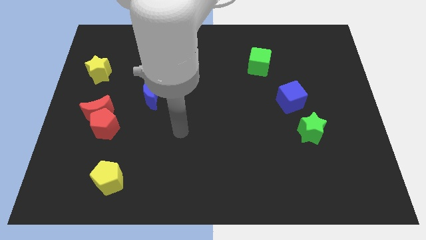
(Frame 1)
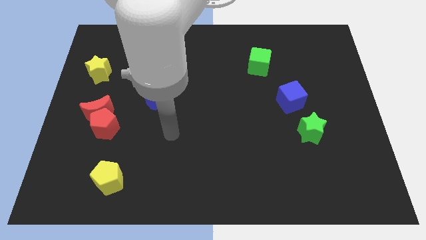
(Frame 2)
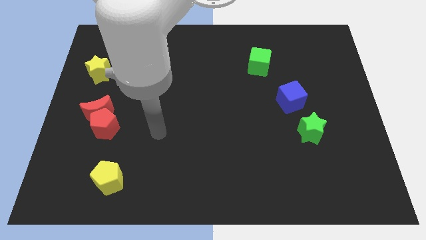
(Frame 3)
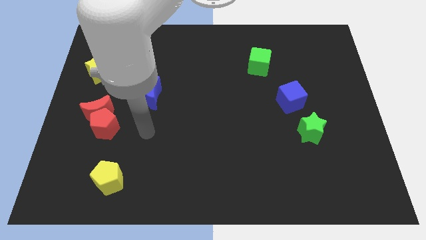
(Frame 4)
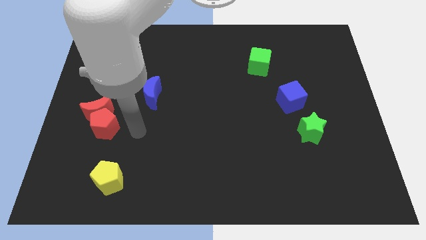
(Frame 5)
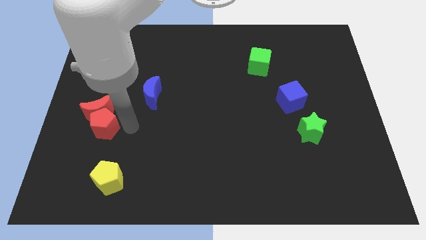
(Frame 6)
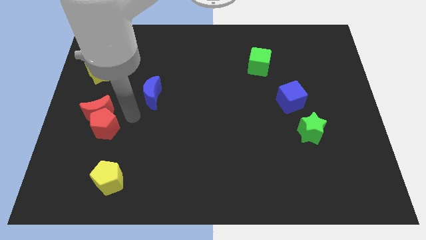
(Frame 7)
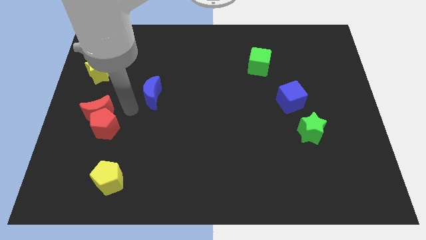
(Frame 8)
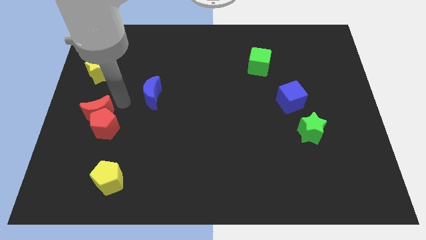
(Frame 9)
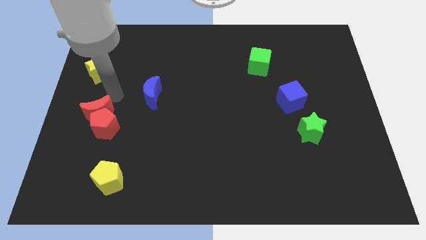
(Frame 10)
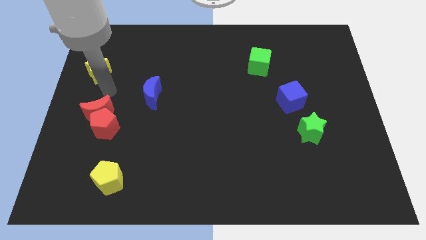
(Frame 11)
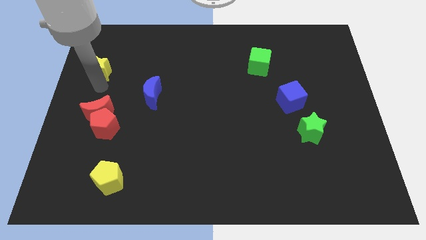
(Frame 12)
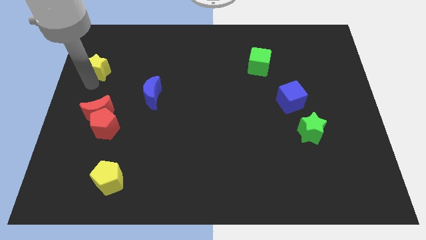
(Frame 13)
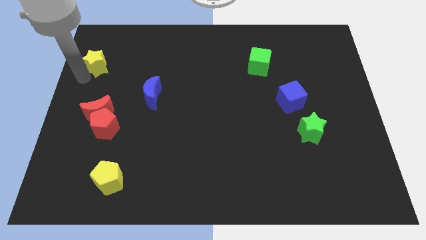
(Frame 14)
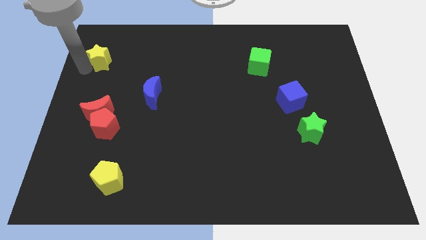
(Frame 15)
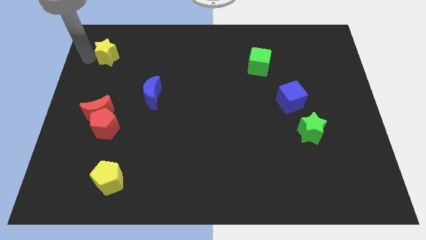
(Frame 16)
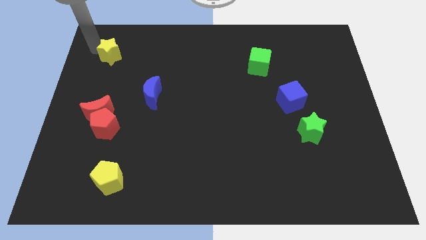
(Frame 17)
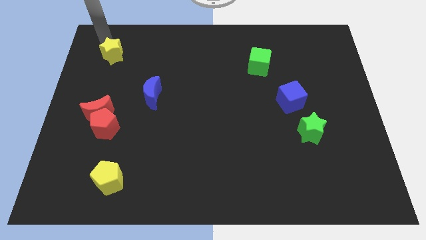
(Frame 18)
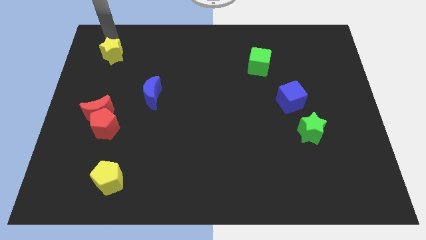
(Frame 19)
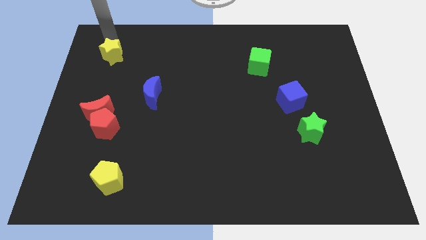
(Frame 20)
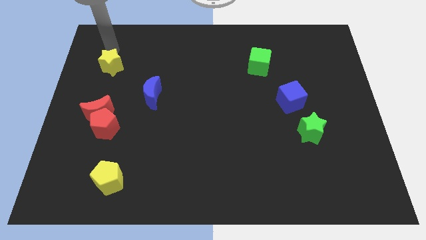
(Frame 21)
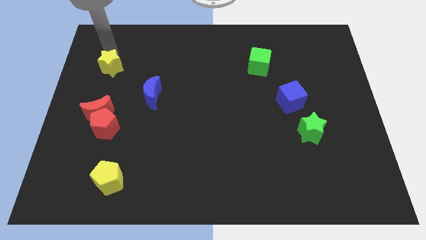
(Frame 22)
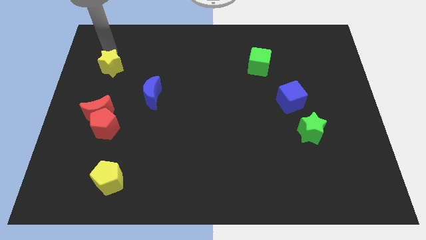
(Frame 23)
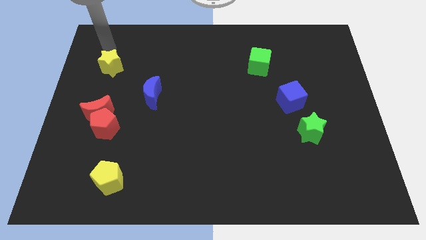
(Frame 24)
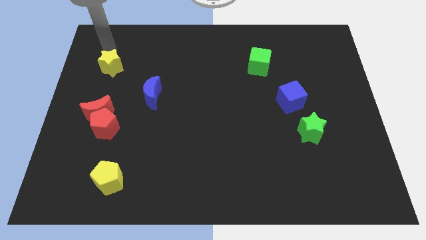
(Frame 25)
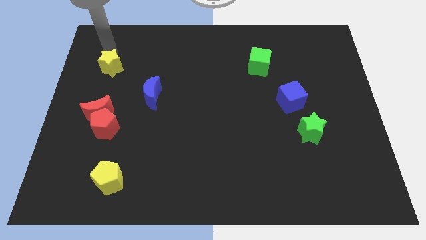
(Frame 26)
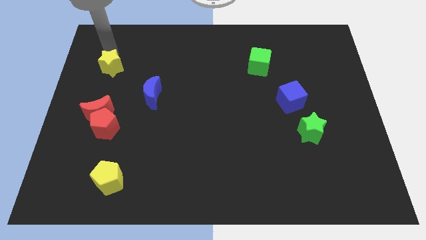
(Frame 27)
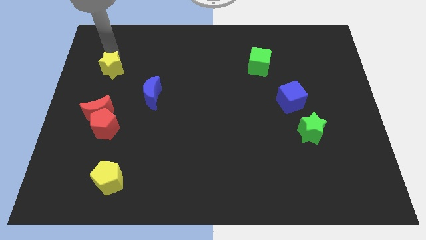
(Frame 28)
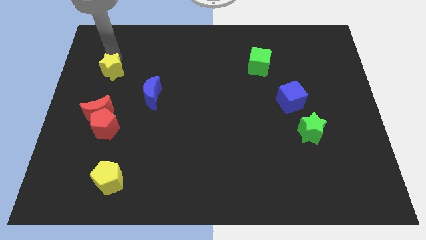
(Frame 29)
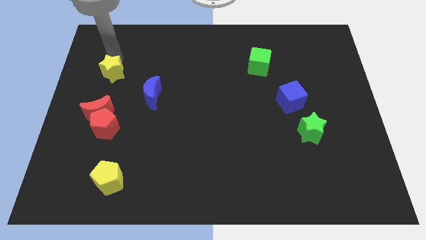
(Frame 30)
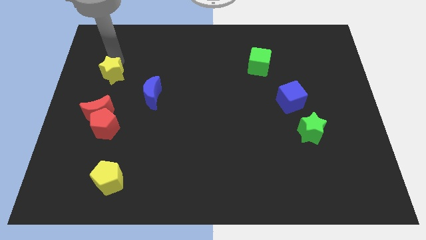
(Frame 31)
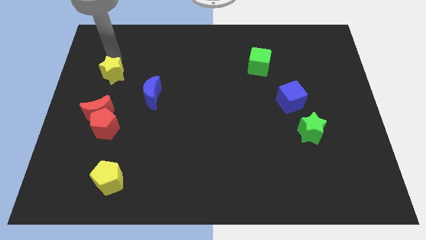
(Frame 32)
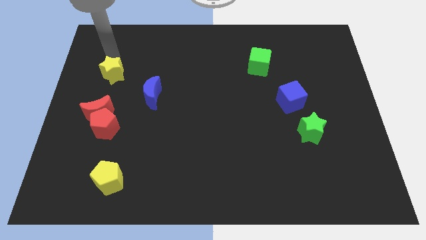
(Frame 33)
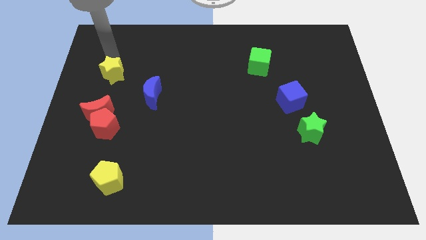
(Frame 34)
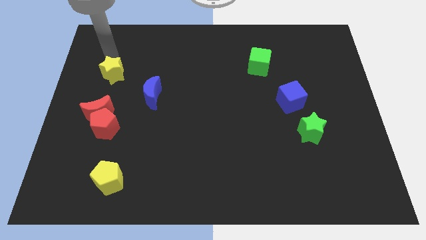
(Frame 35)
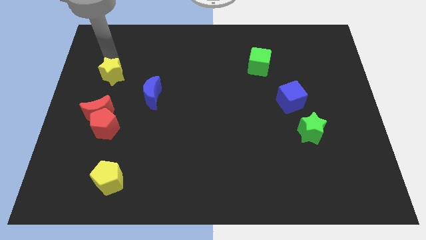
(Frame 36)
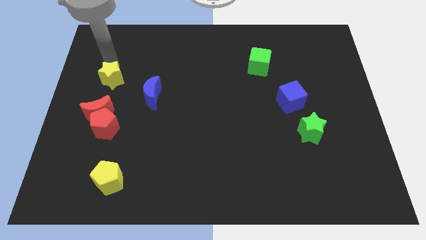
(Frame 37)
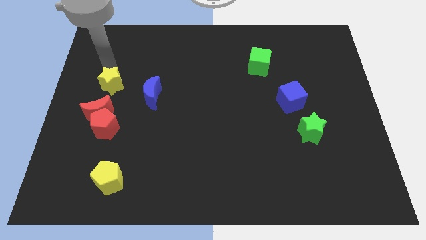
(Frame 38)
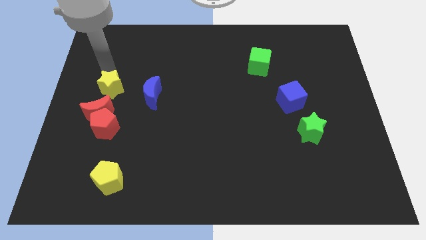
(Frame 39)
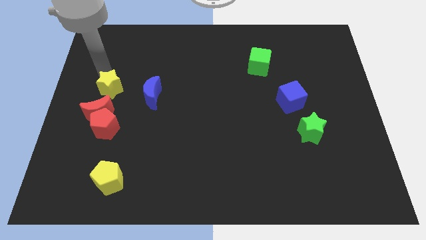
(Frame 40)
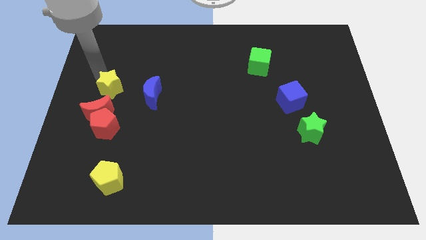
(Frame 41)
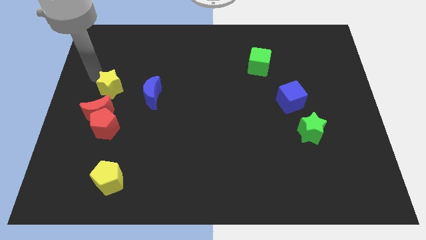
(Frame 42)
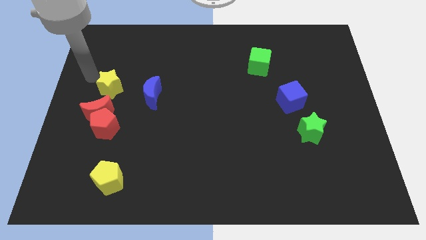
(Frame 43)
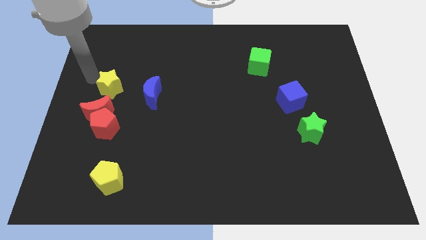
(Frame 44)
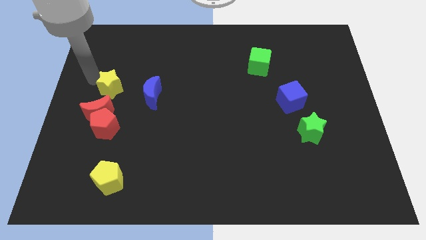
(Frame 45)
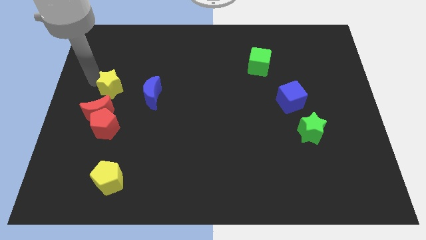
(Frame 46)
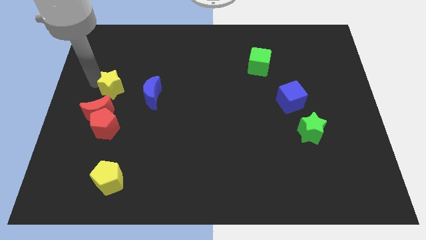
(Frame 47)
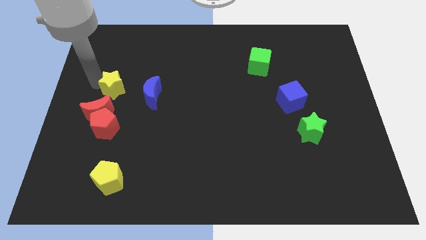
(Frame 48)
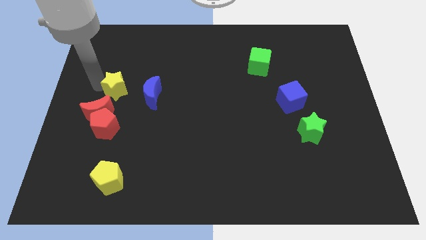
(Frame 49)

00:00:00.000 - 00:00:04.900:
slightly slide the yellow star downwards and to the right

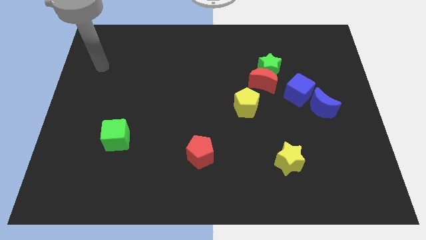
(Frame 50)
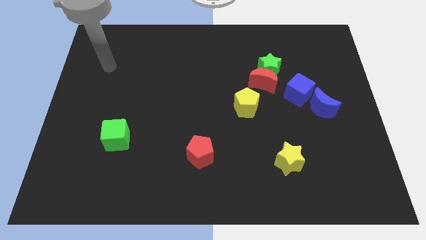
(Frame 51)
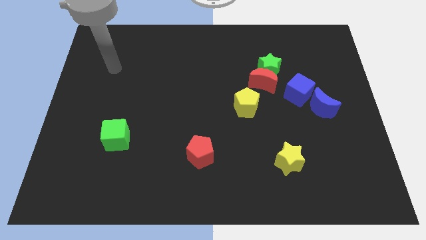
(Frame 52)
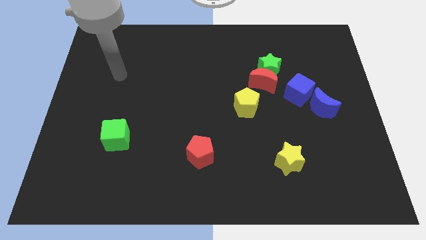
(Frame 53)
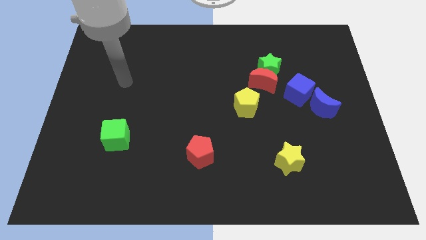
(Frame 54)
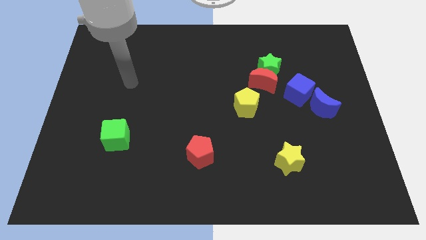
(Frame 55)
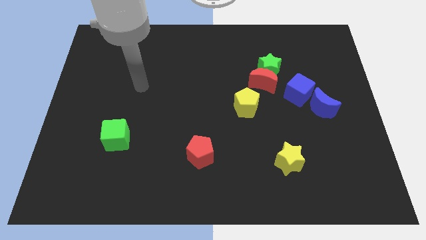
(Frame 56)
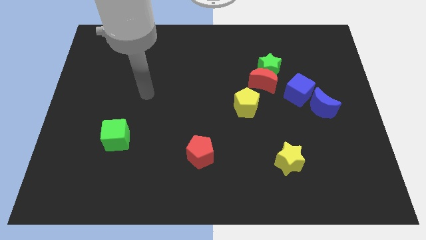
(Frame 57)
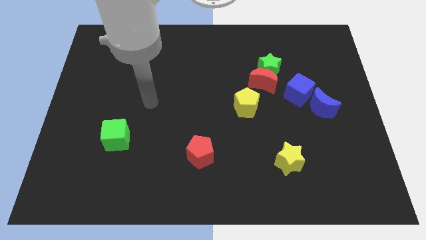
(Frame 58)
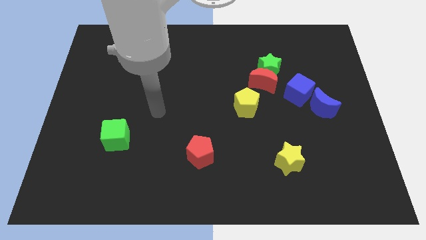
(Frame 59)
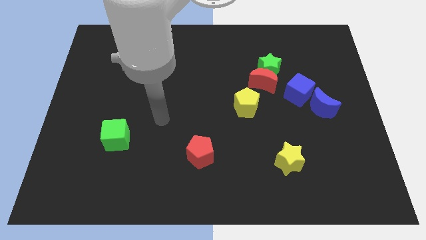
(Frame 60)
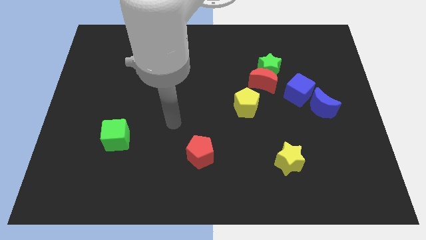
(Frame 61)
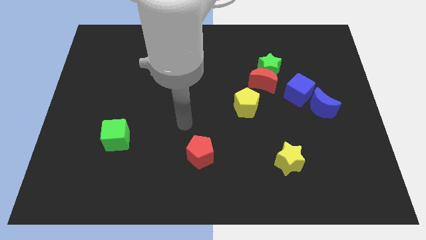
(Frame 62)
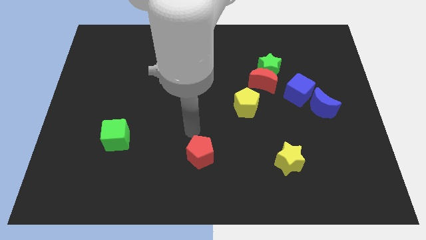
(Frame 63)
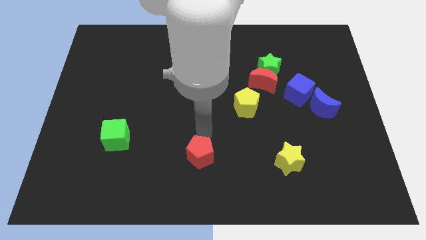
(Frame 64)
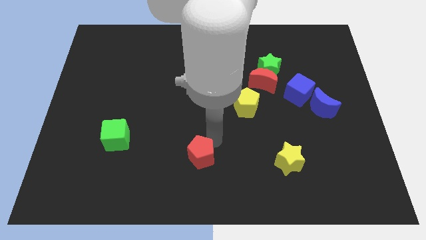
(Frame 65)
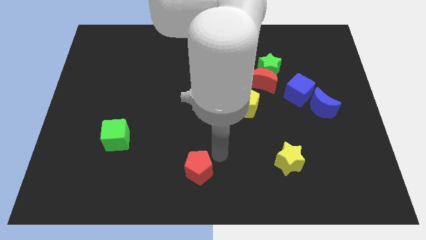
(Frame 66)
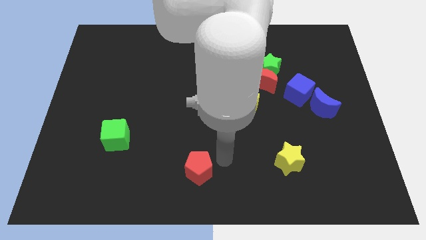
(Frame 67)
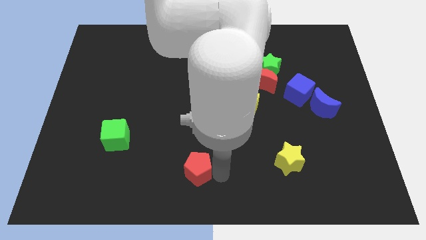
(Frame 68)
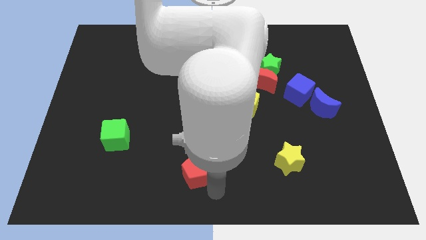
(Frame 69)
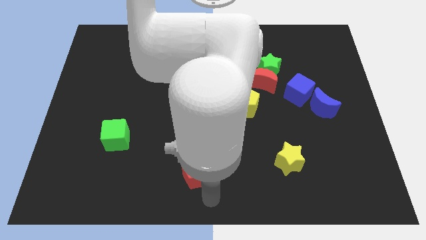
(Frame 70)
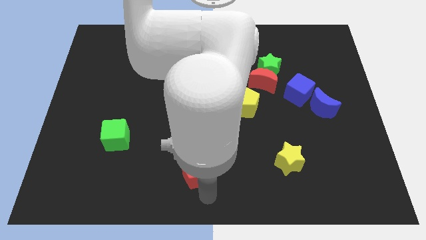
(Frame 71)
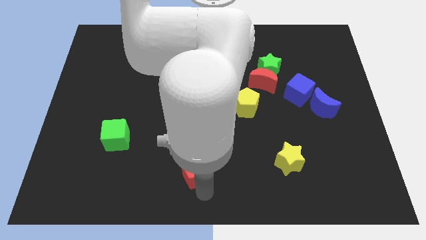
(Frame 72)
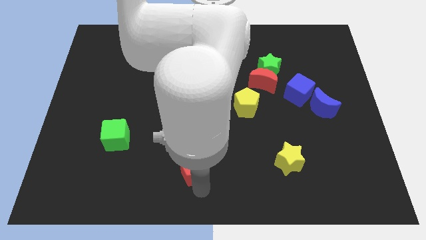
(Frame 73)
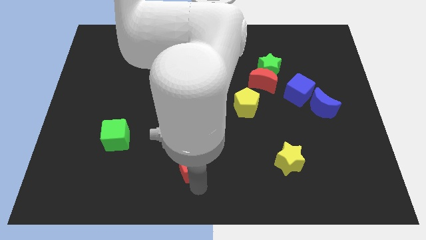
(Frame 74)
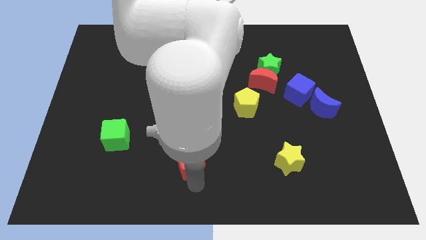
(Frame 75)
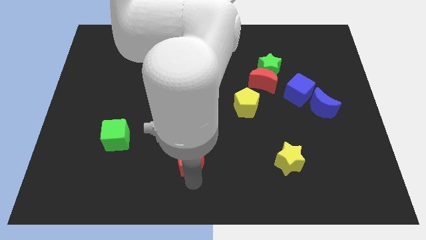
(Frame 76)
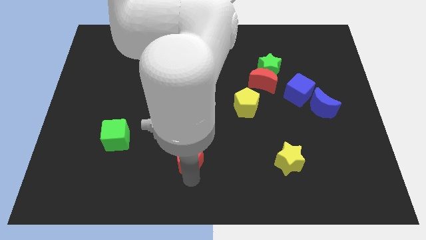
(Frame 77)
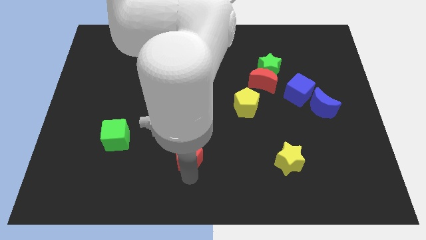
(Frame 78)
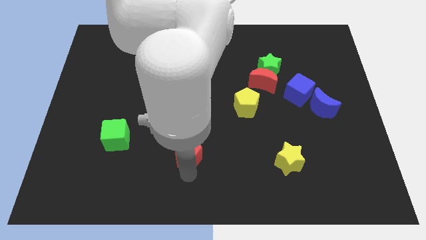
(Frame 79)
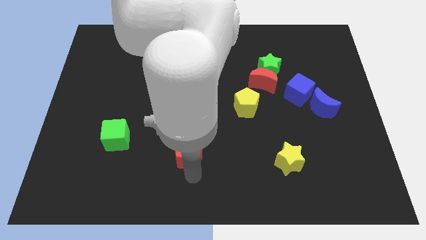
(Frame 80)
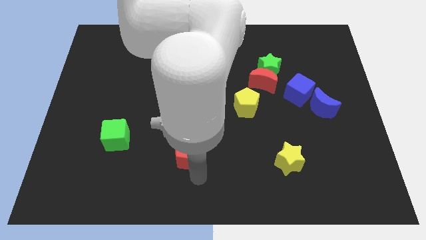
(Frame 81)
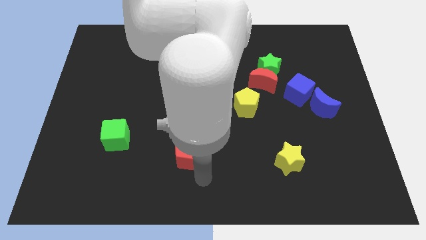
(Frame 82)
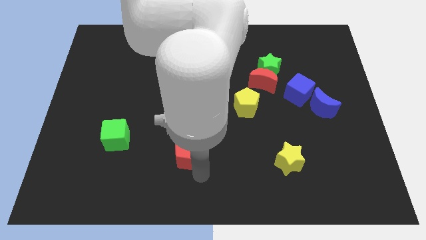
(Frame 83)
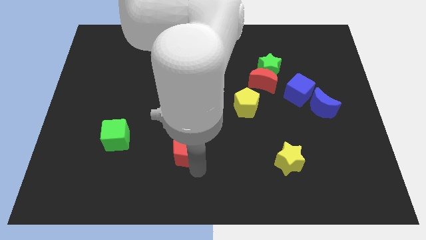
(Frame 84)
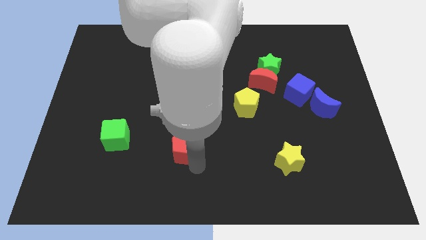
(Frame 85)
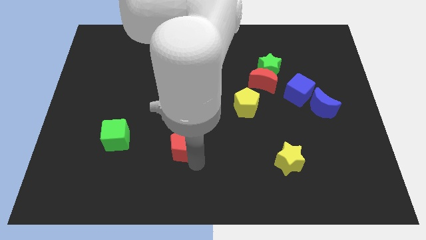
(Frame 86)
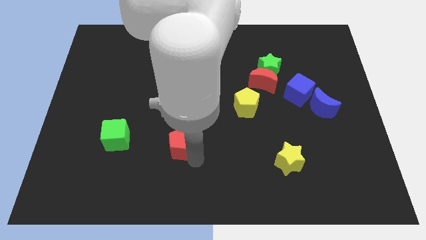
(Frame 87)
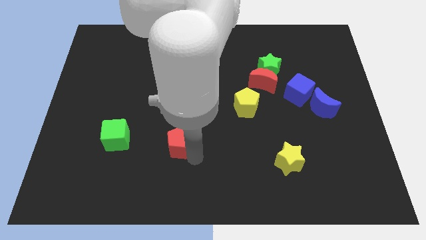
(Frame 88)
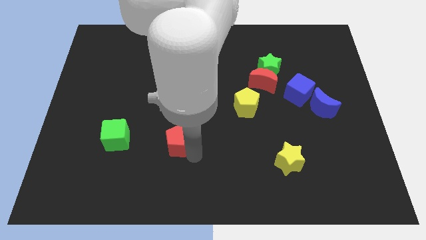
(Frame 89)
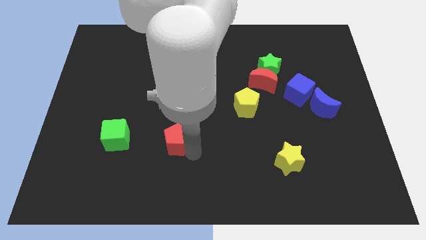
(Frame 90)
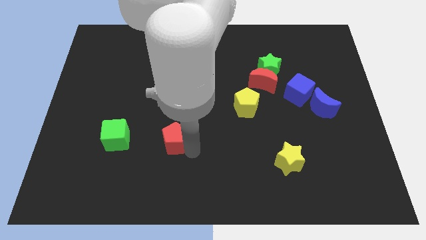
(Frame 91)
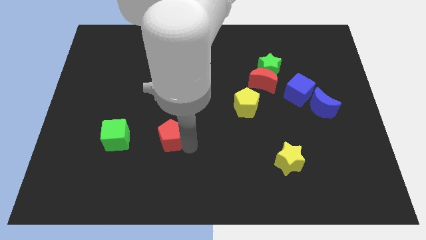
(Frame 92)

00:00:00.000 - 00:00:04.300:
slightly push the red pentagon diagonally up and left
